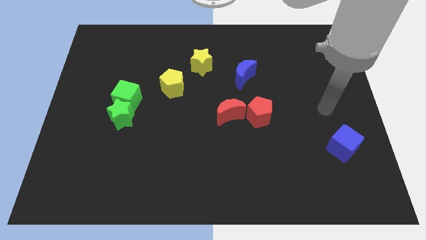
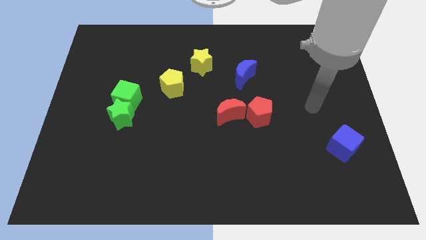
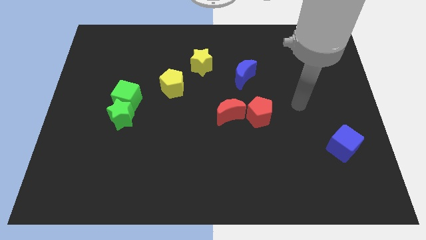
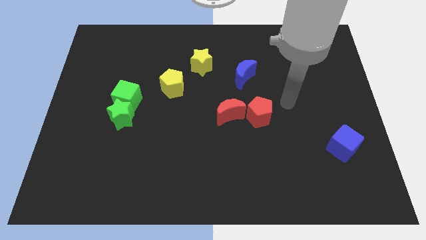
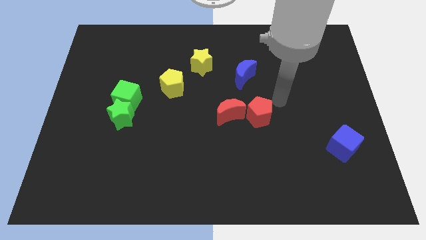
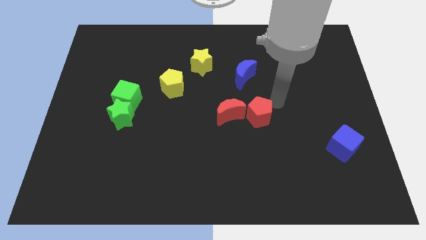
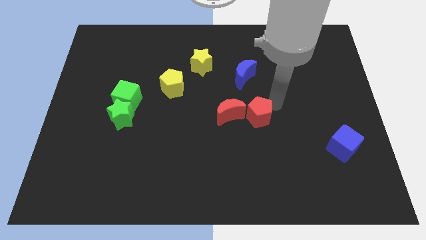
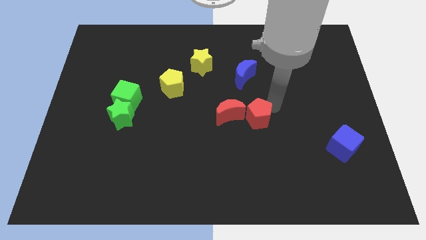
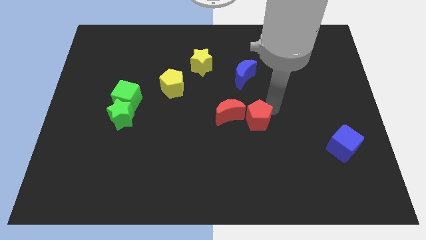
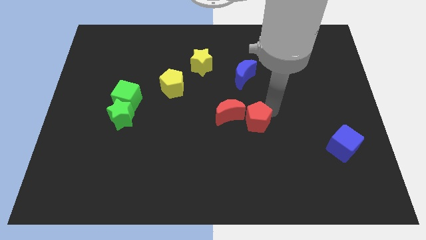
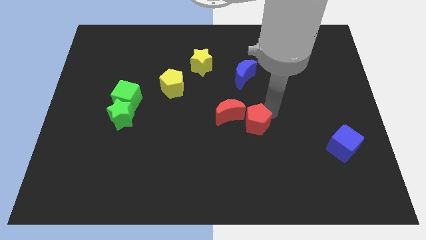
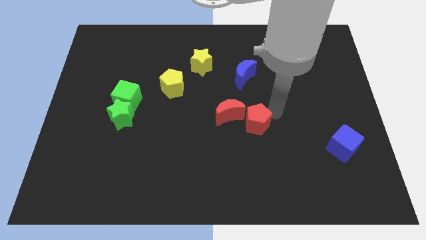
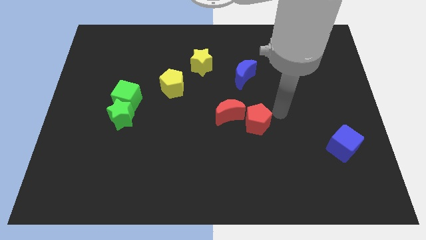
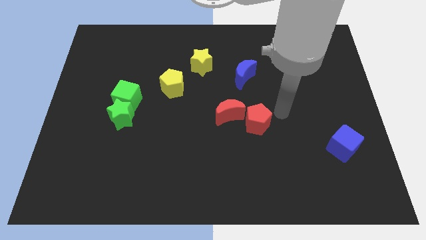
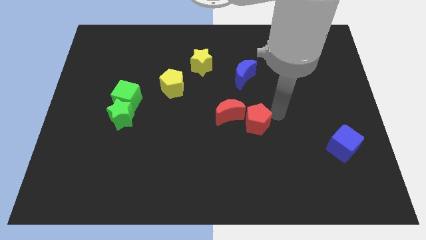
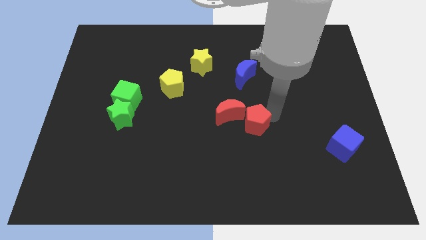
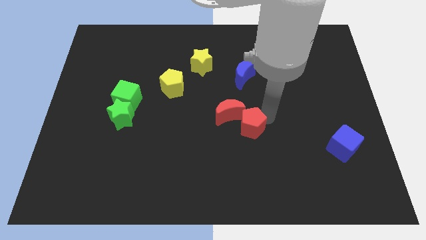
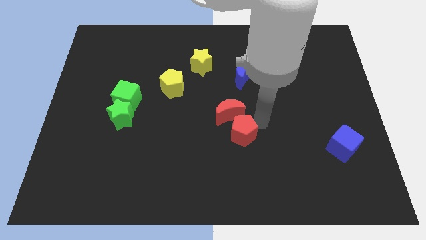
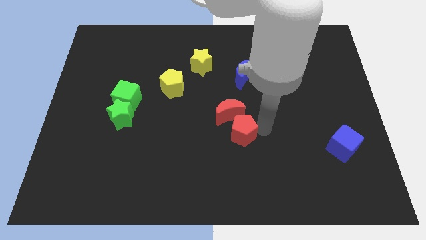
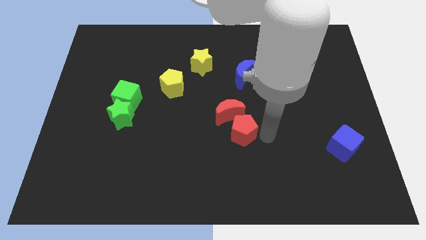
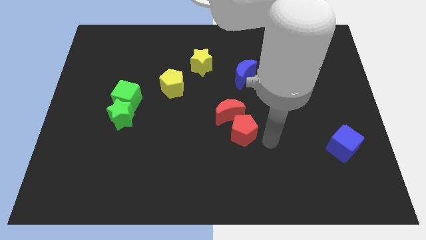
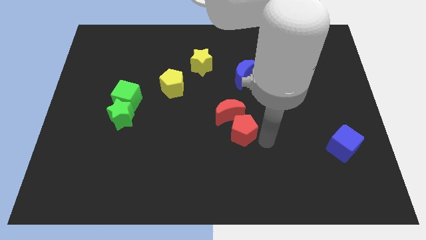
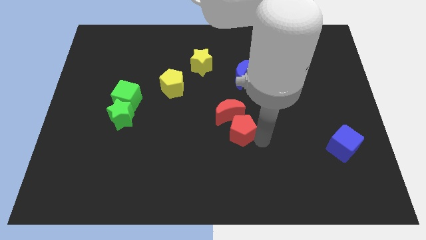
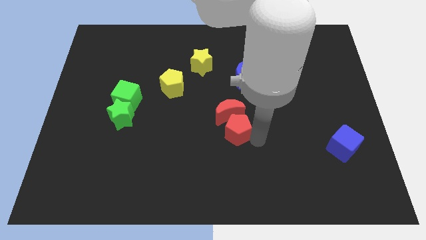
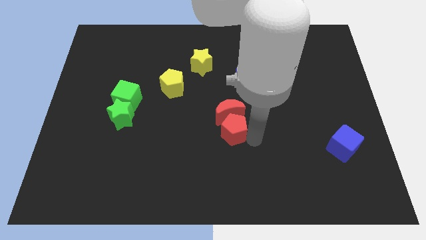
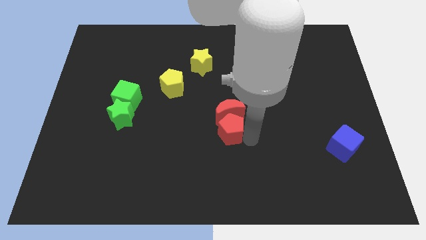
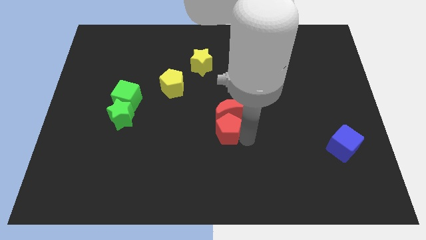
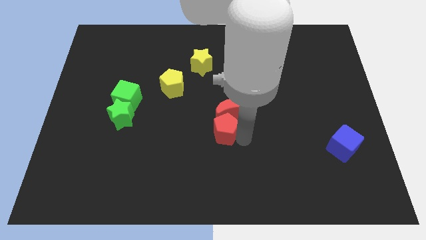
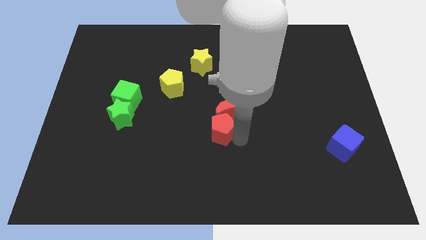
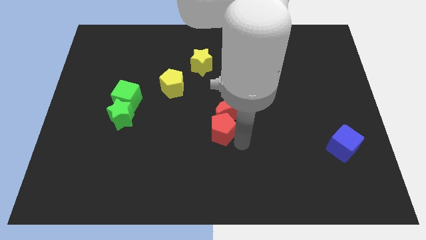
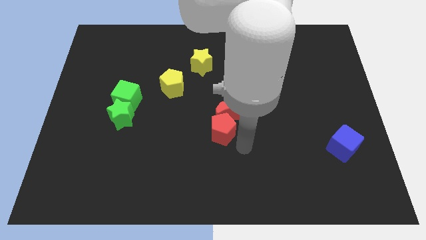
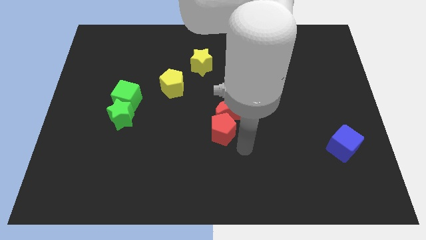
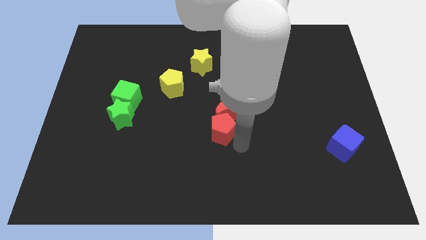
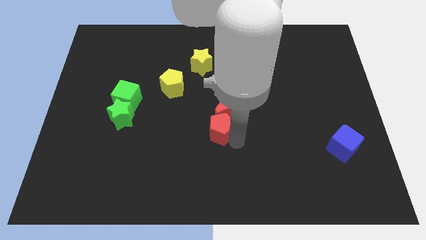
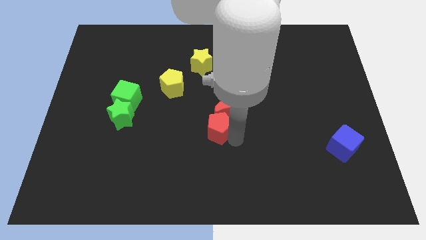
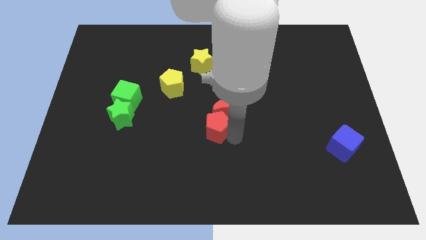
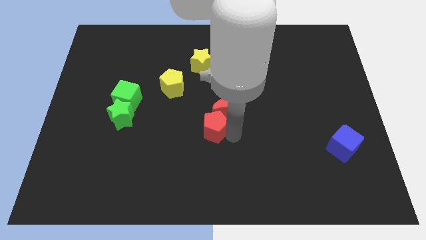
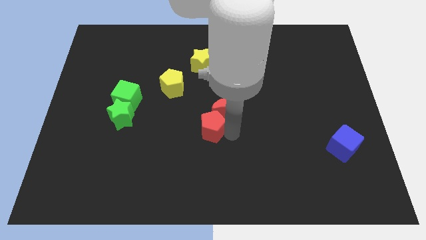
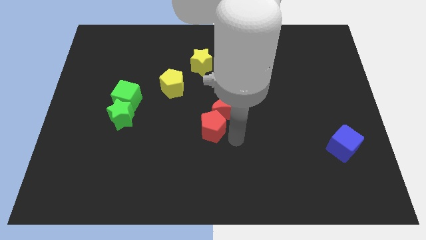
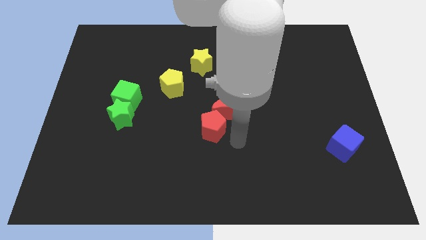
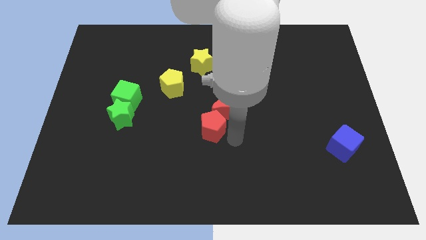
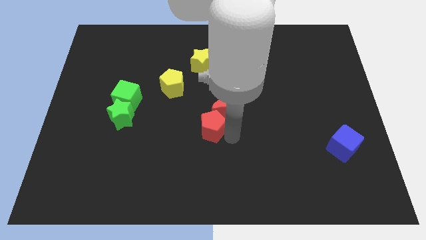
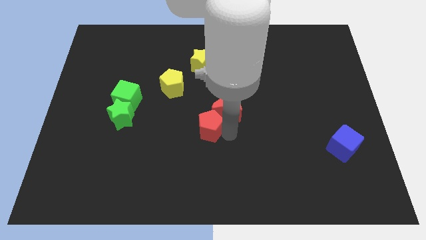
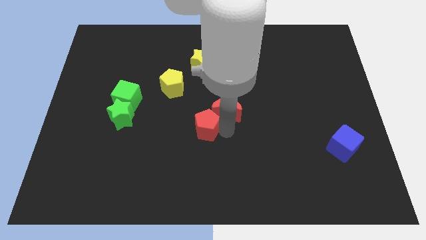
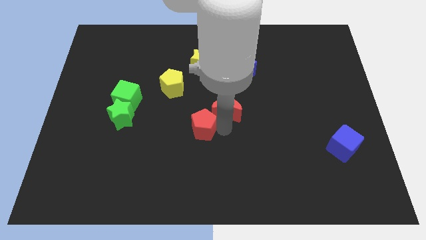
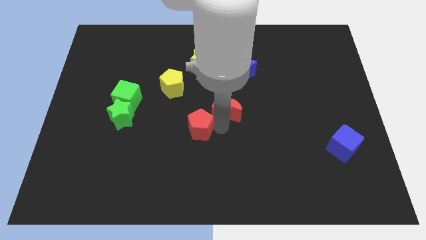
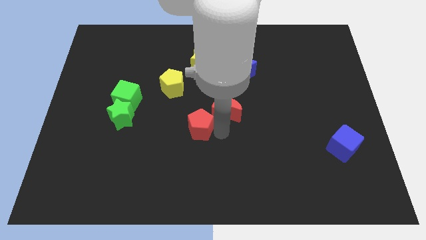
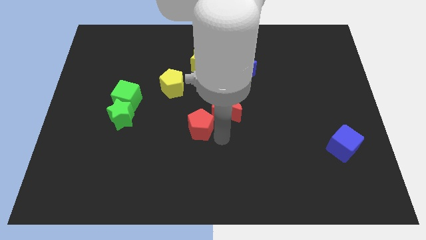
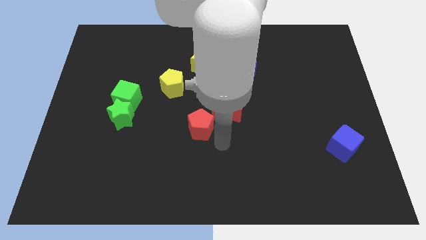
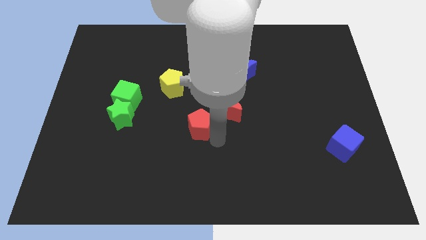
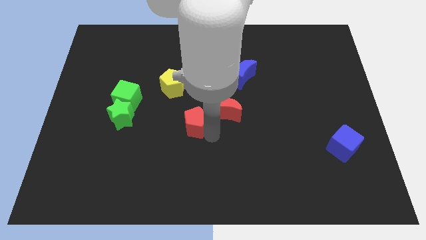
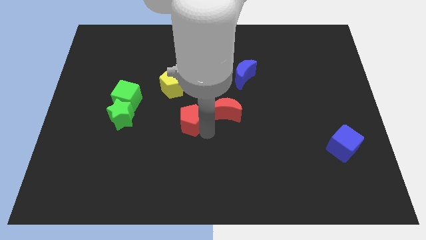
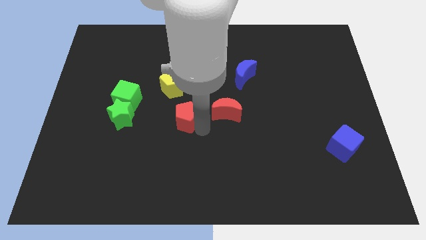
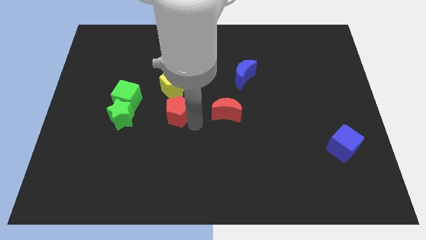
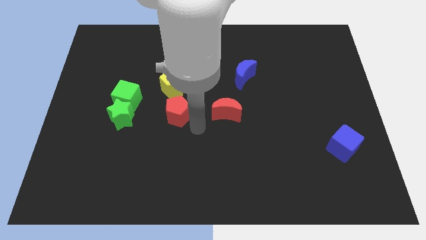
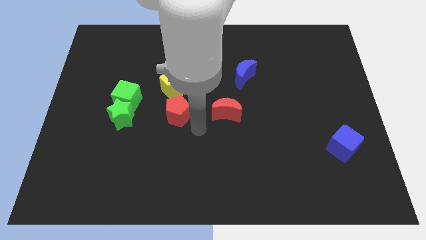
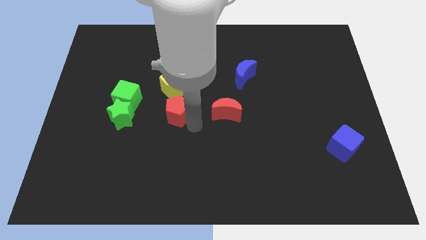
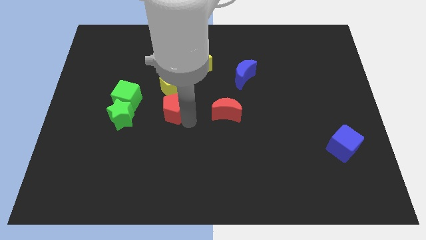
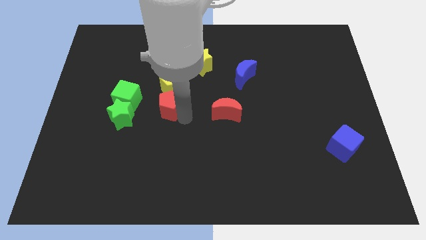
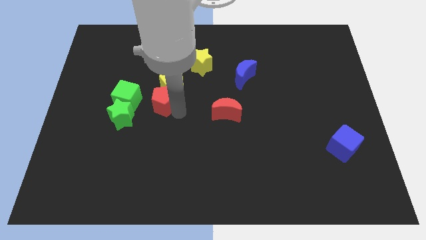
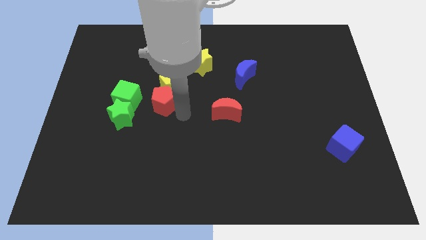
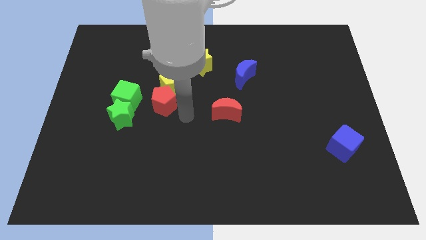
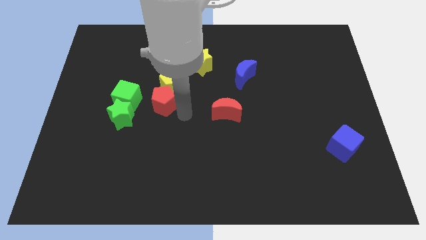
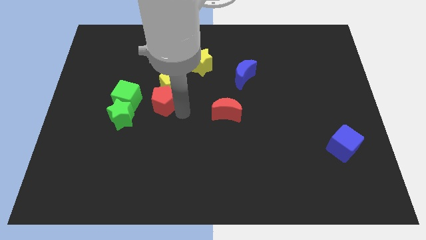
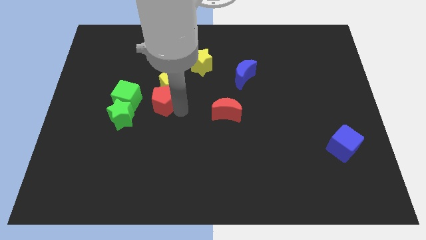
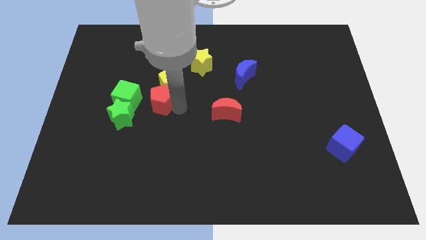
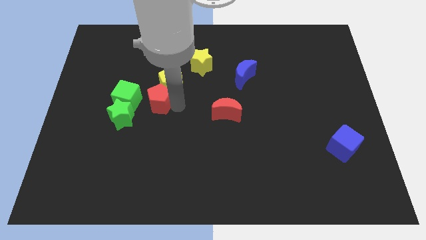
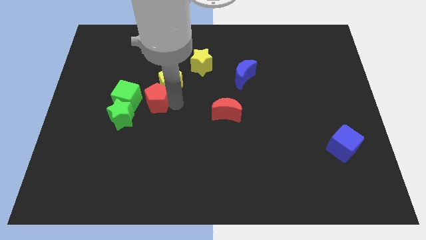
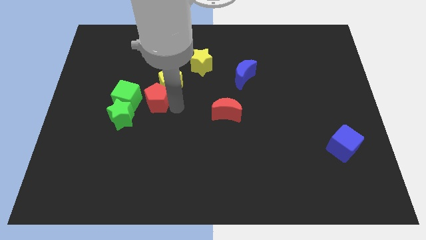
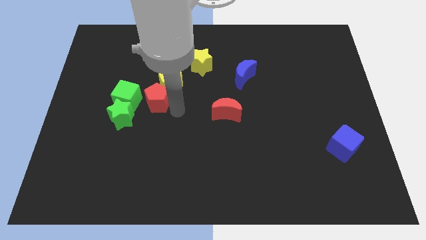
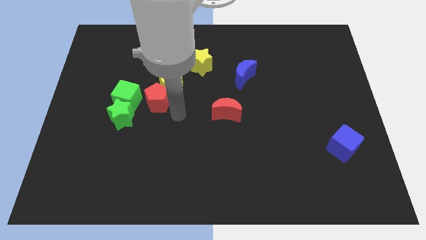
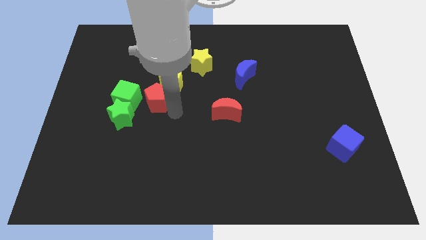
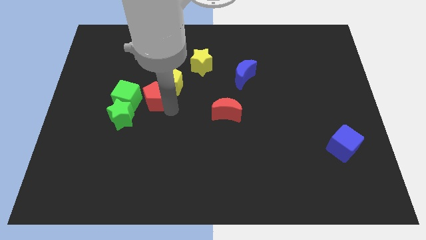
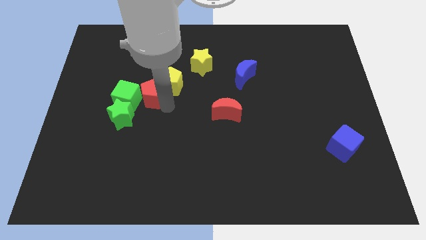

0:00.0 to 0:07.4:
move the red pentagon to the left of the yellow pentagon
